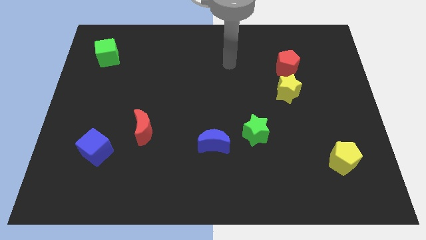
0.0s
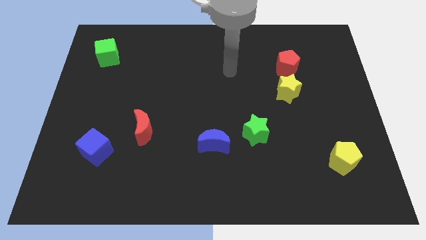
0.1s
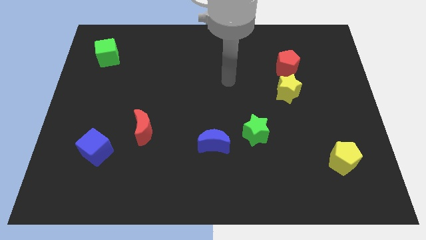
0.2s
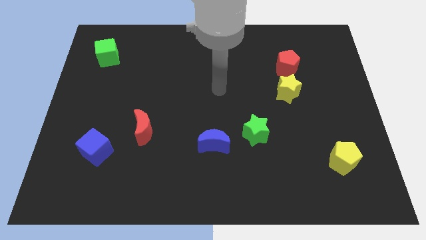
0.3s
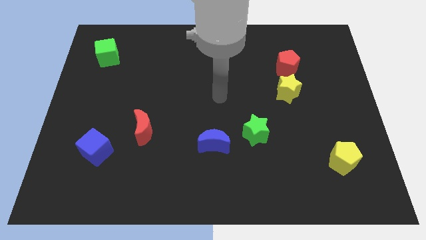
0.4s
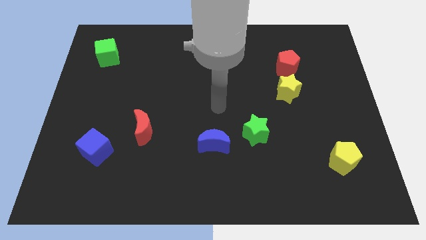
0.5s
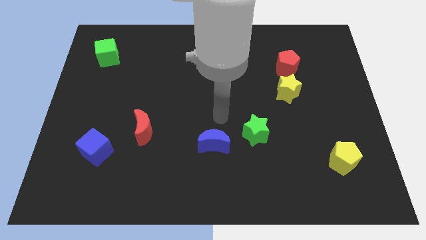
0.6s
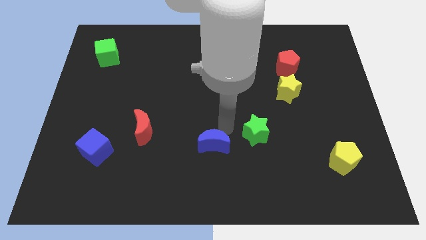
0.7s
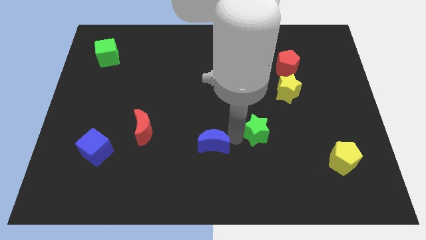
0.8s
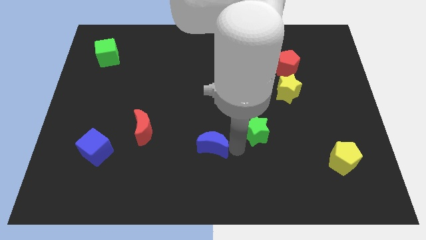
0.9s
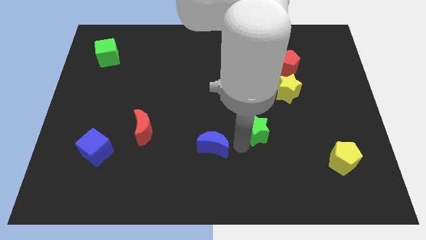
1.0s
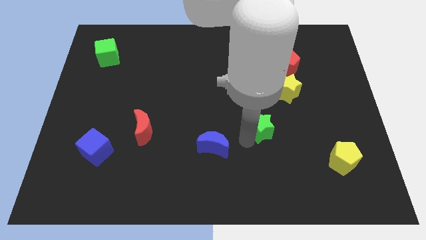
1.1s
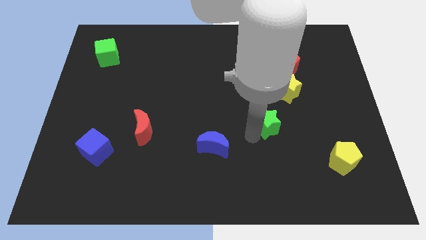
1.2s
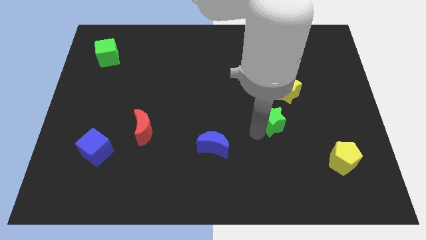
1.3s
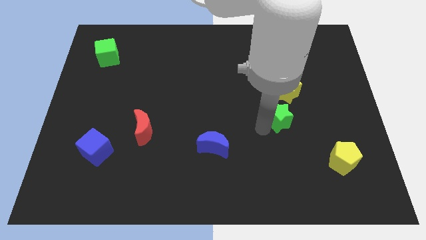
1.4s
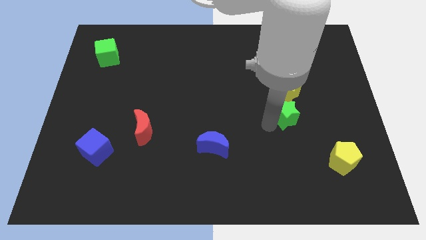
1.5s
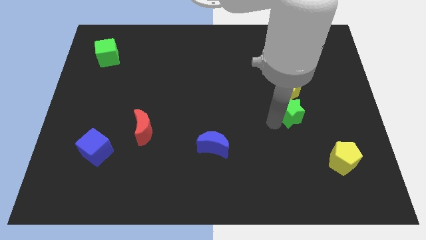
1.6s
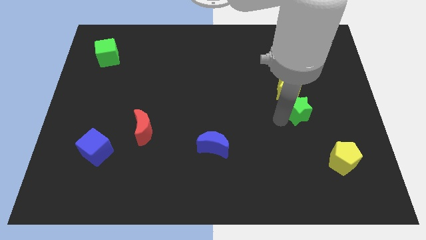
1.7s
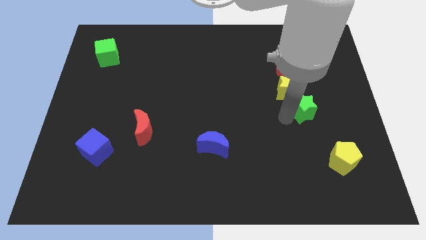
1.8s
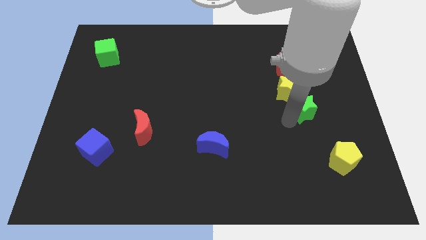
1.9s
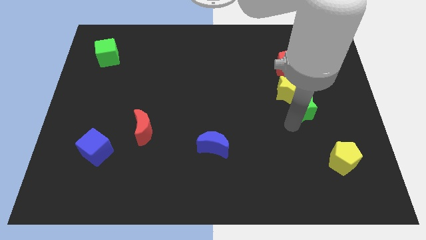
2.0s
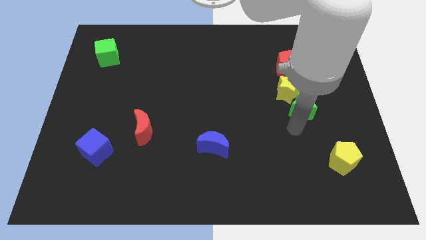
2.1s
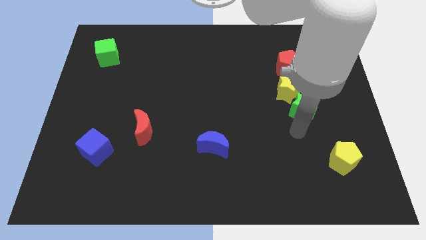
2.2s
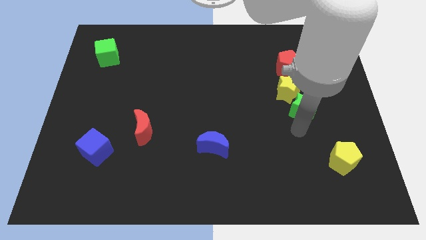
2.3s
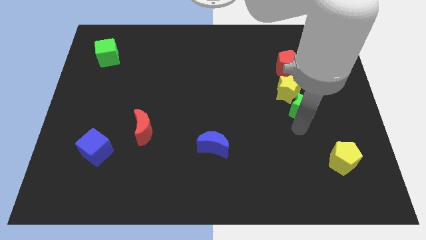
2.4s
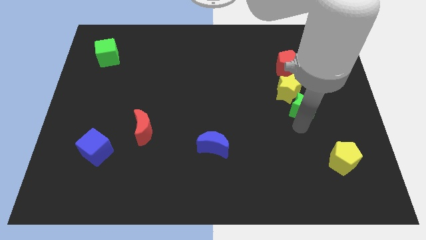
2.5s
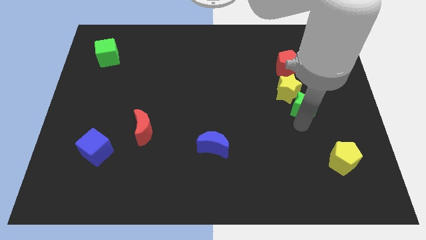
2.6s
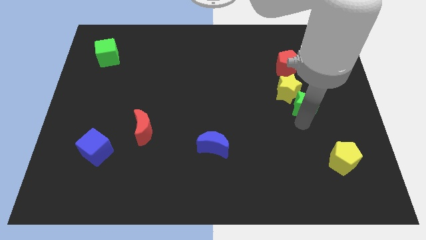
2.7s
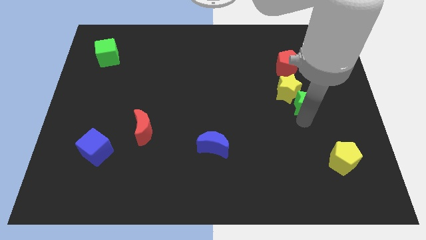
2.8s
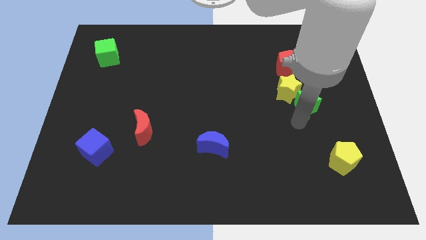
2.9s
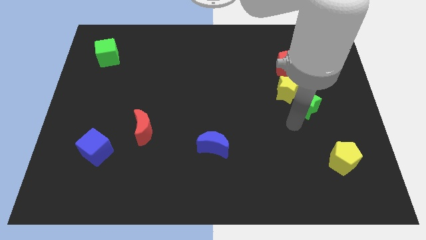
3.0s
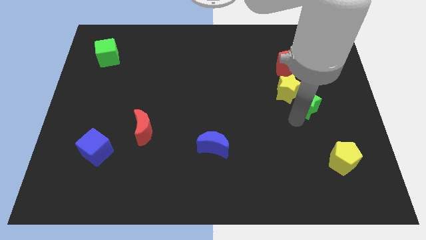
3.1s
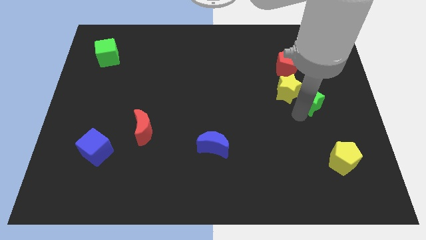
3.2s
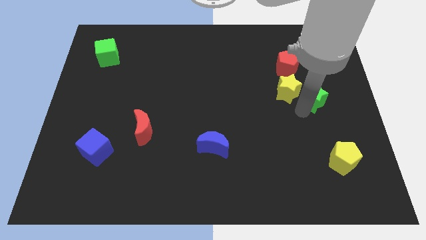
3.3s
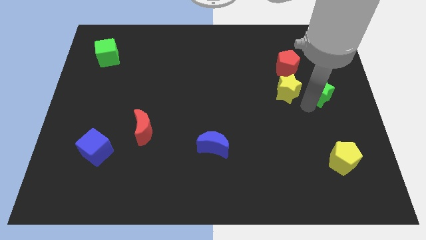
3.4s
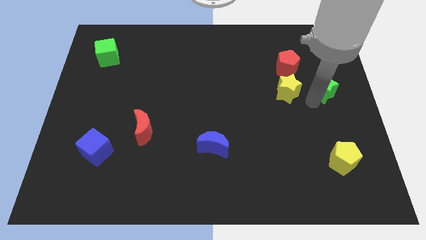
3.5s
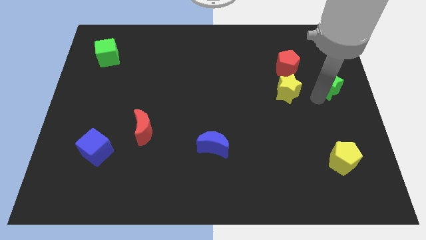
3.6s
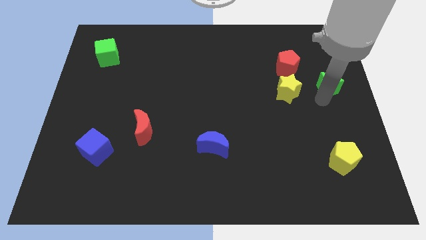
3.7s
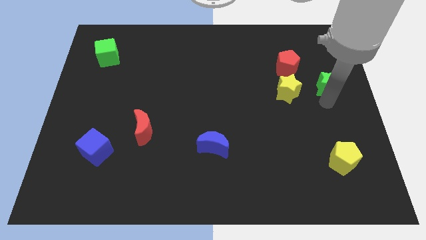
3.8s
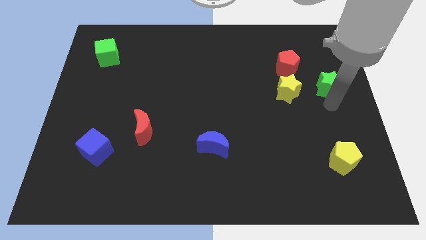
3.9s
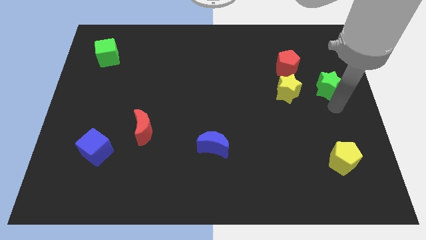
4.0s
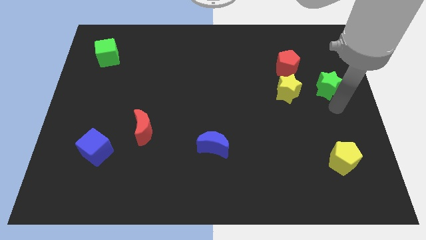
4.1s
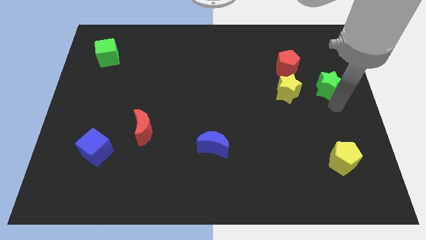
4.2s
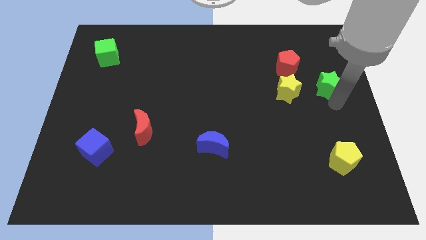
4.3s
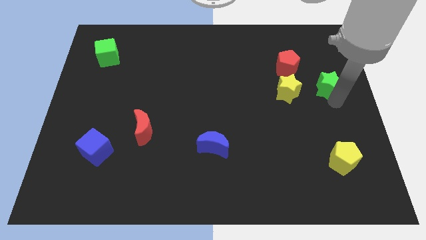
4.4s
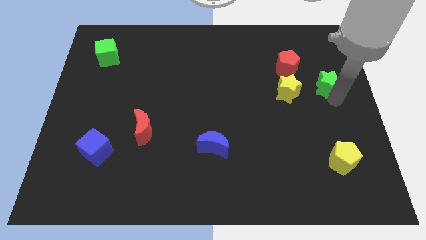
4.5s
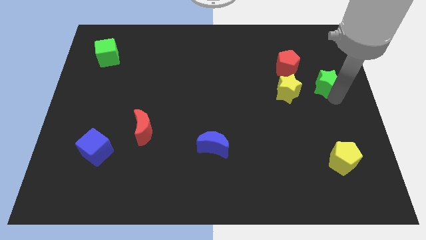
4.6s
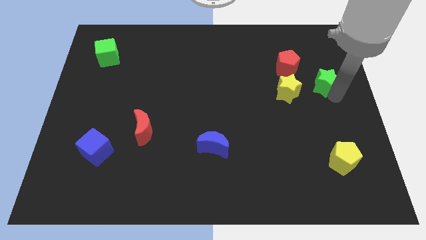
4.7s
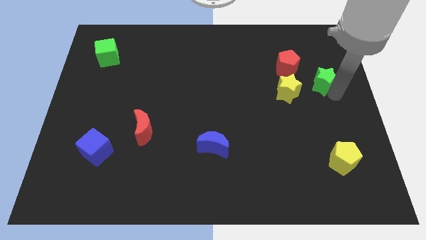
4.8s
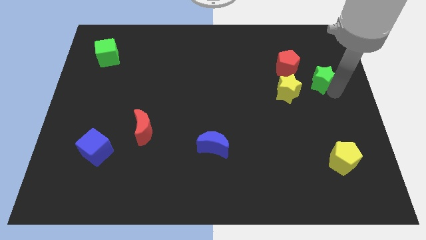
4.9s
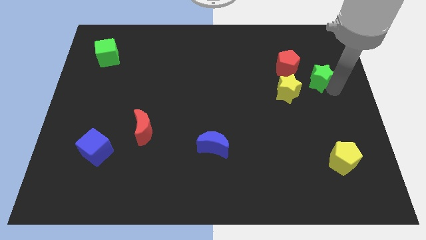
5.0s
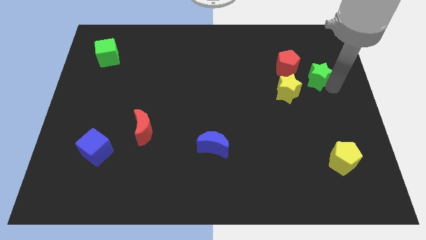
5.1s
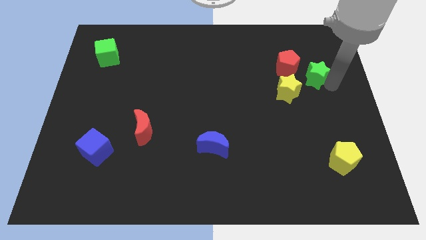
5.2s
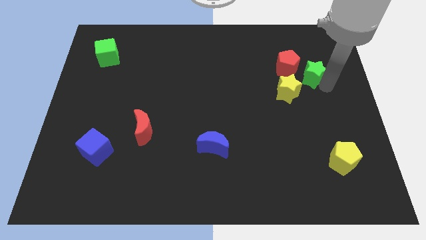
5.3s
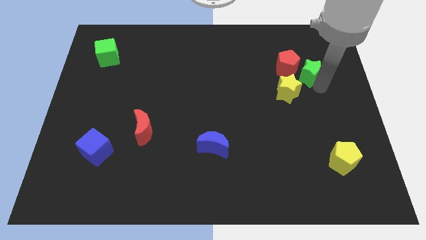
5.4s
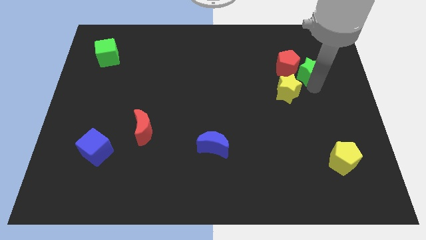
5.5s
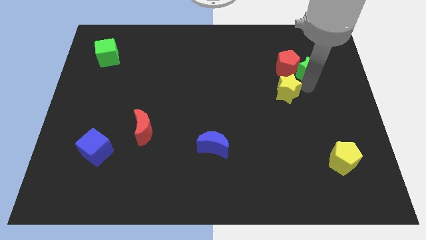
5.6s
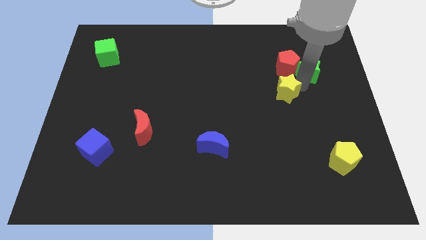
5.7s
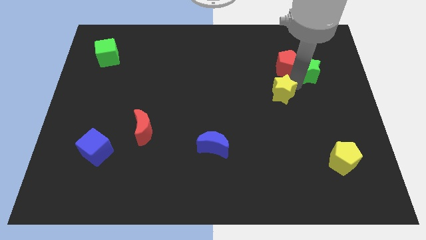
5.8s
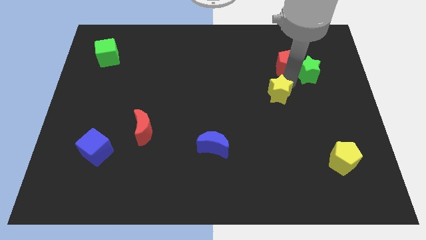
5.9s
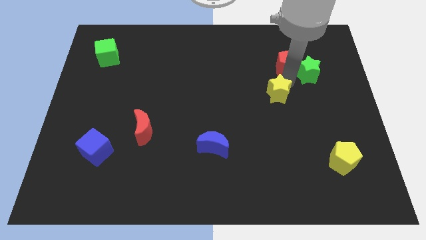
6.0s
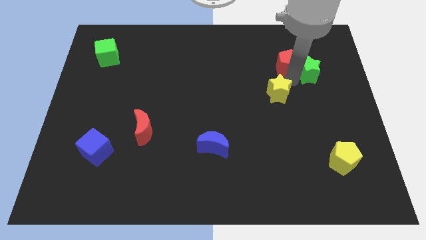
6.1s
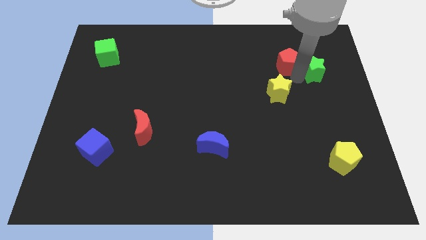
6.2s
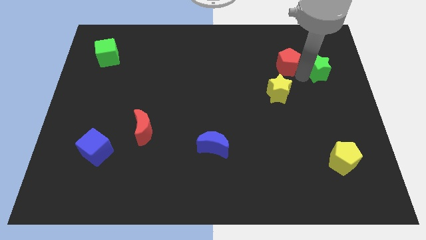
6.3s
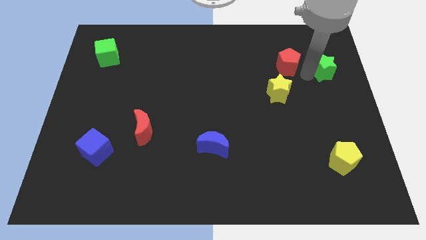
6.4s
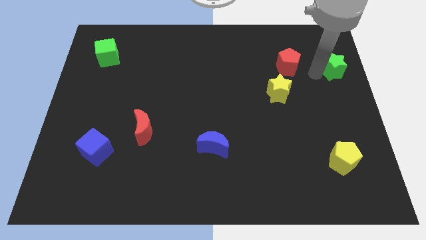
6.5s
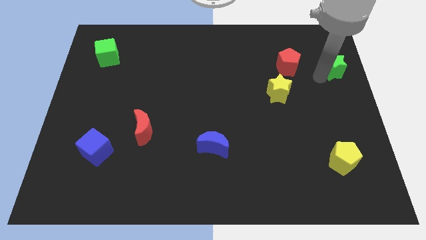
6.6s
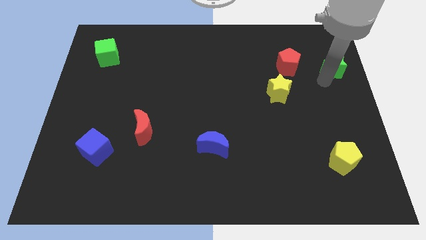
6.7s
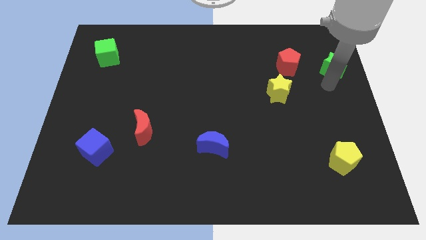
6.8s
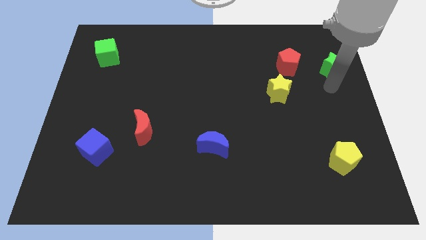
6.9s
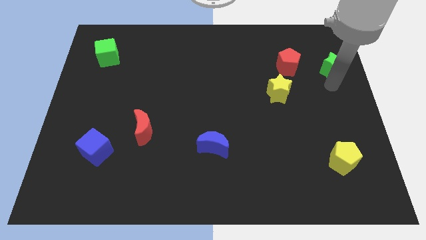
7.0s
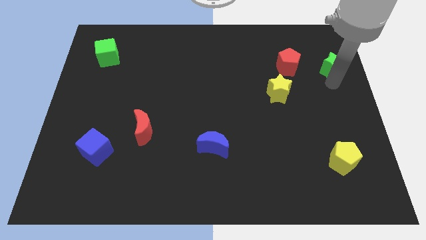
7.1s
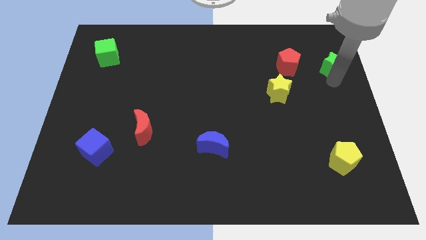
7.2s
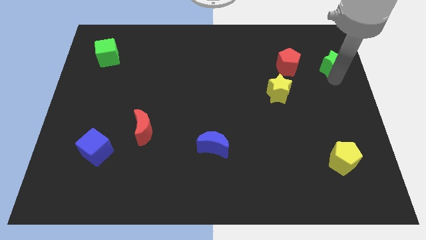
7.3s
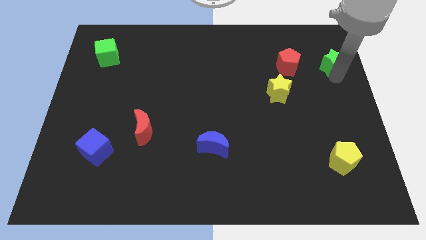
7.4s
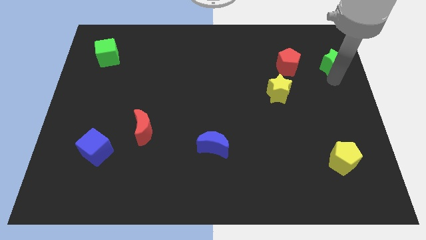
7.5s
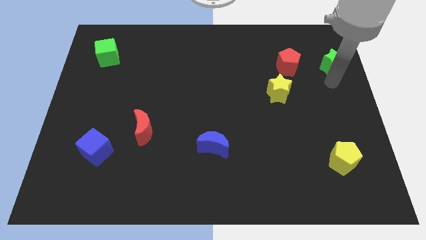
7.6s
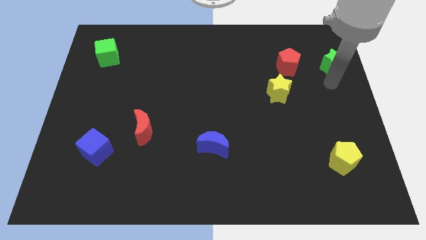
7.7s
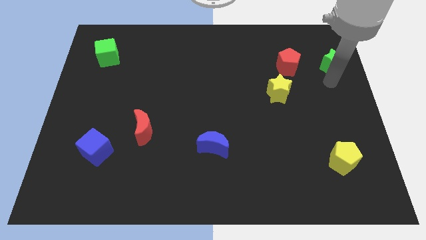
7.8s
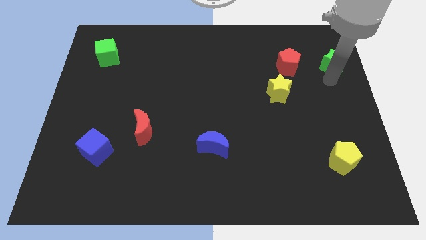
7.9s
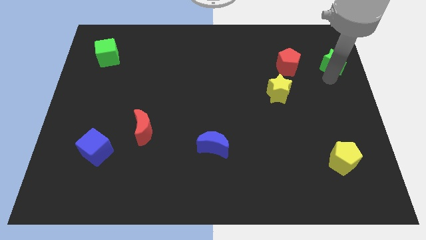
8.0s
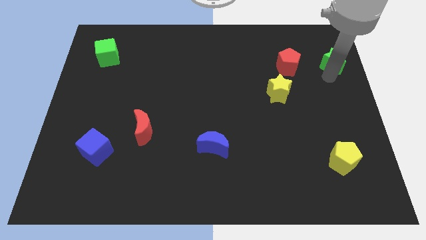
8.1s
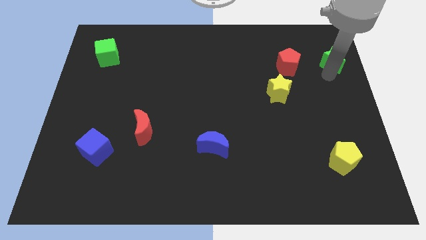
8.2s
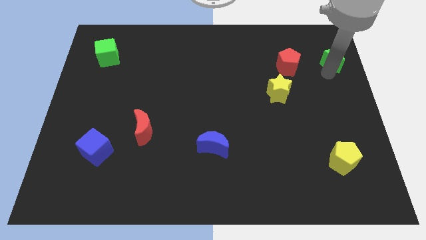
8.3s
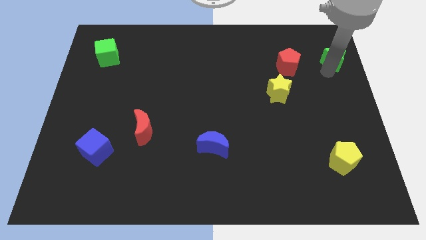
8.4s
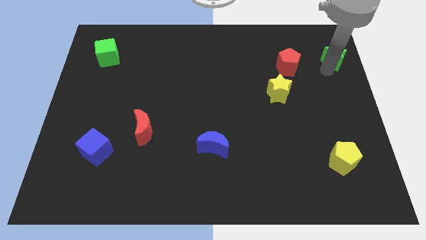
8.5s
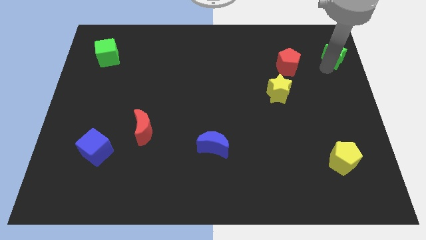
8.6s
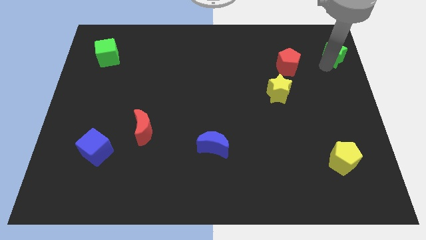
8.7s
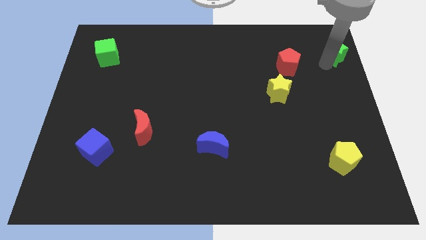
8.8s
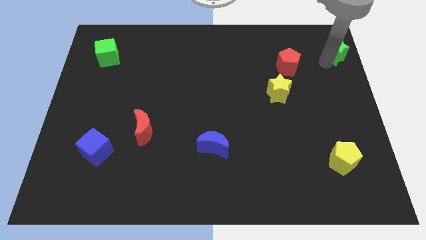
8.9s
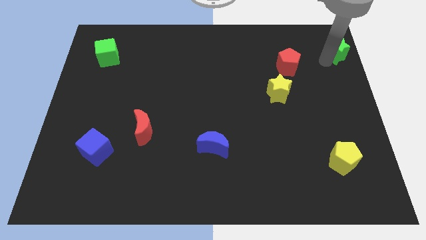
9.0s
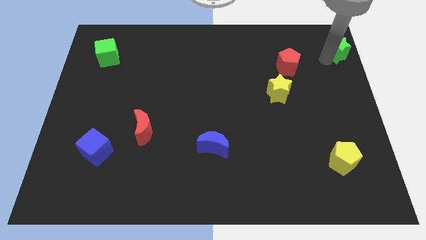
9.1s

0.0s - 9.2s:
put the green star to the upper right corner
